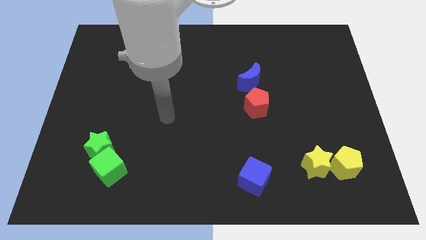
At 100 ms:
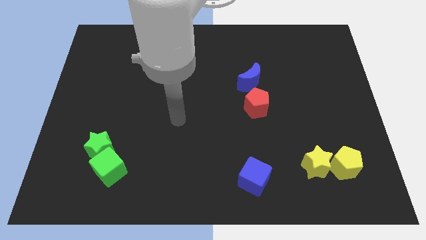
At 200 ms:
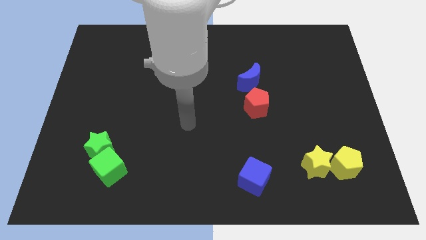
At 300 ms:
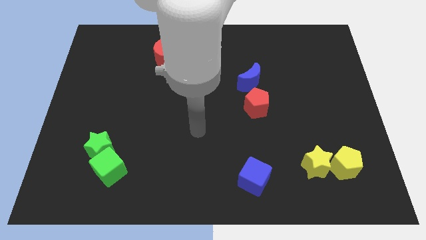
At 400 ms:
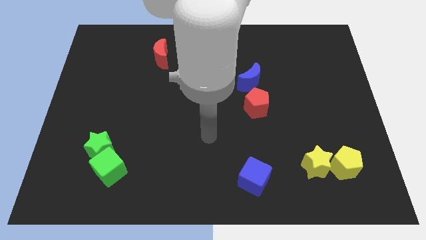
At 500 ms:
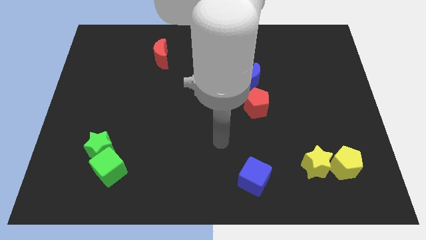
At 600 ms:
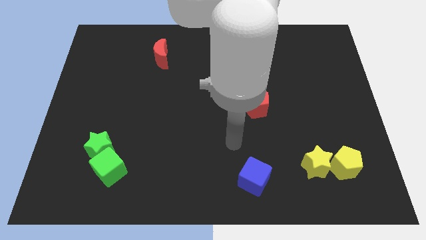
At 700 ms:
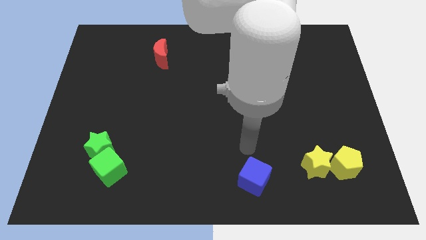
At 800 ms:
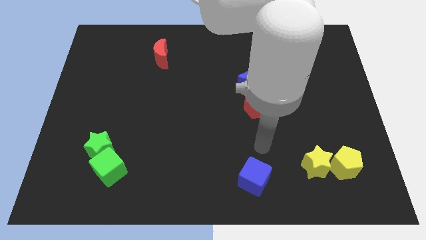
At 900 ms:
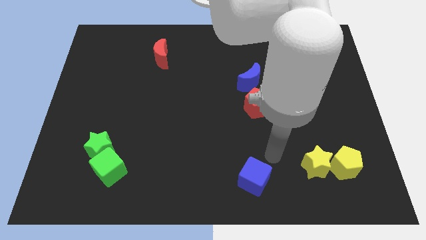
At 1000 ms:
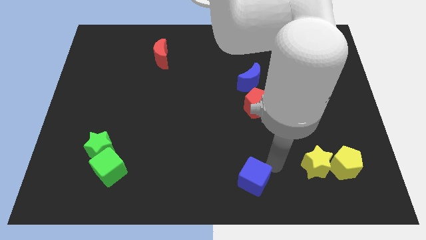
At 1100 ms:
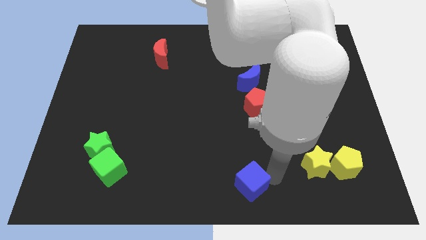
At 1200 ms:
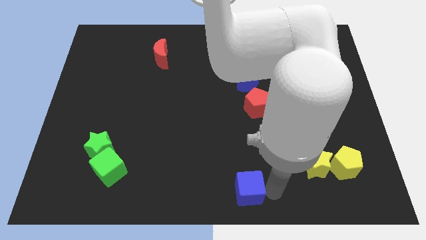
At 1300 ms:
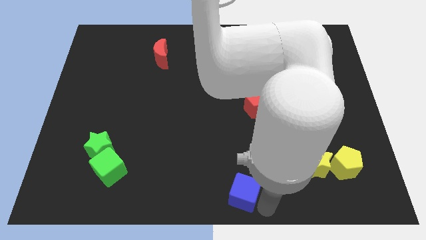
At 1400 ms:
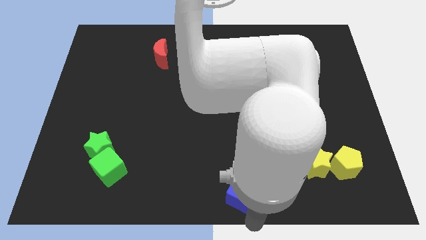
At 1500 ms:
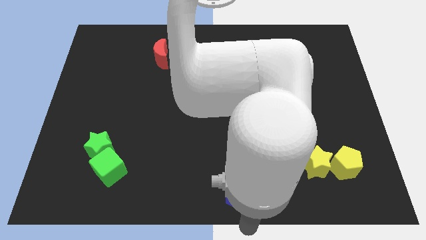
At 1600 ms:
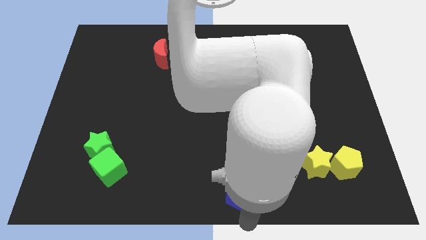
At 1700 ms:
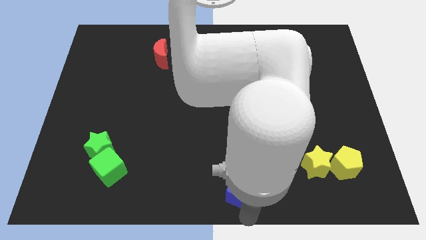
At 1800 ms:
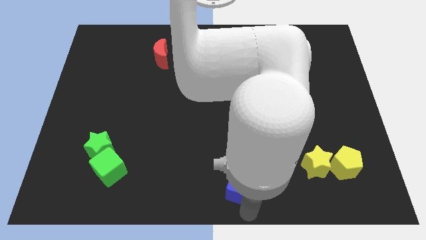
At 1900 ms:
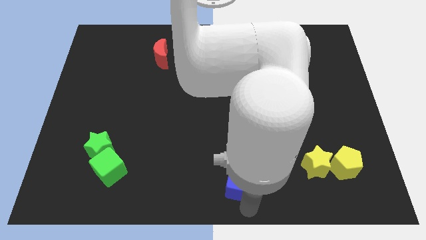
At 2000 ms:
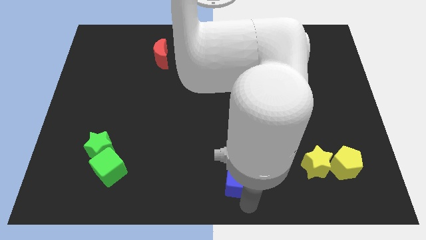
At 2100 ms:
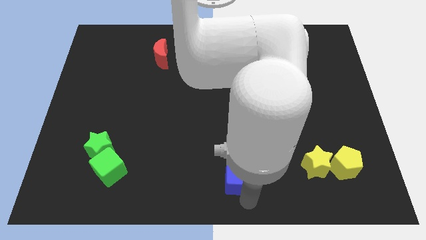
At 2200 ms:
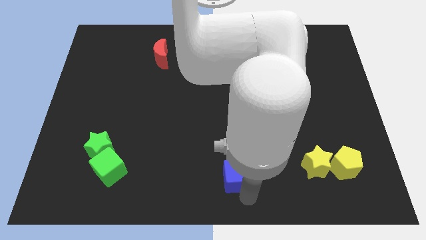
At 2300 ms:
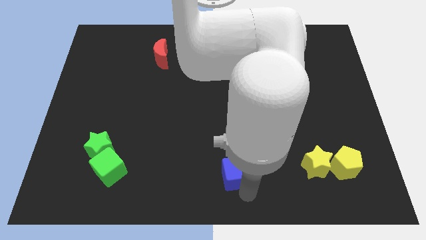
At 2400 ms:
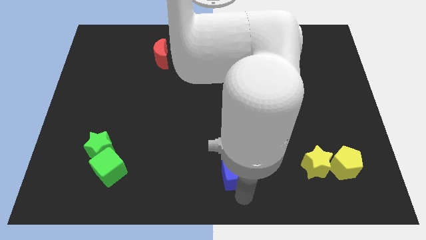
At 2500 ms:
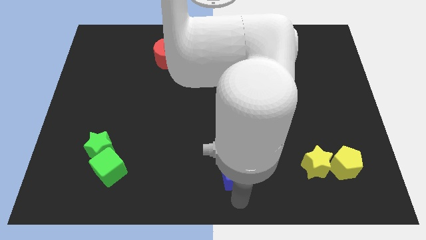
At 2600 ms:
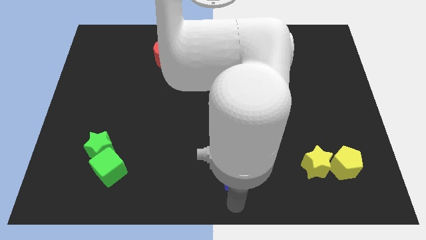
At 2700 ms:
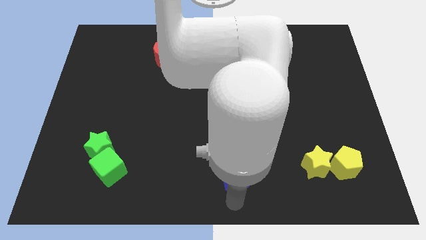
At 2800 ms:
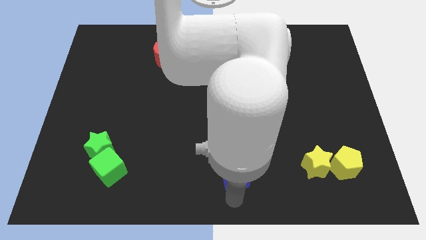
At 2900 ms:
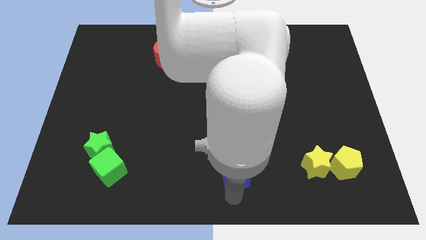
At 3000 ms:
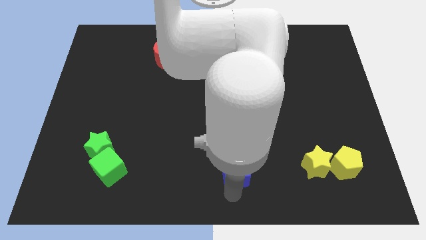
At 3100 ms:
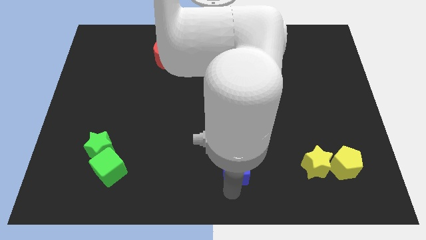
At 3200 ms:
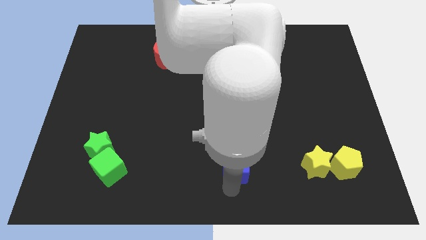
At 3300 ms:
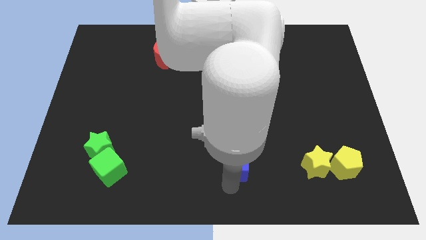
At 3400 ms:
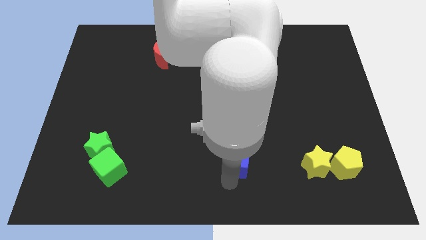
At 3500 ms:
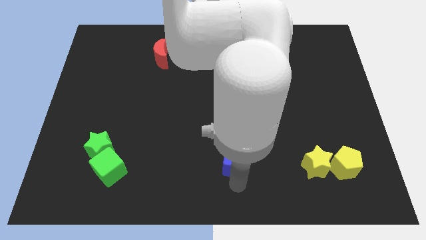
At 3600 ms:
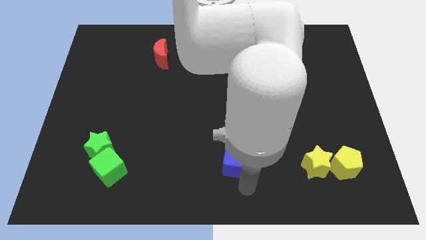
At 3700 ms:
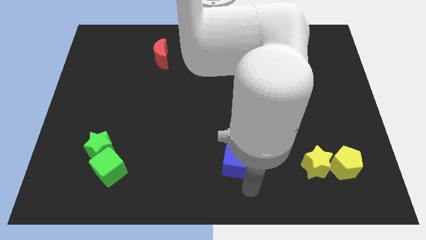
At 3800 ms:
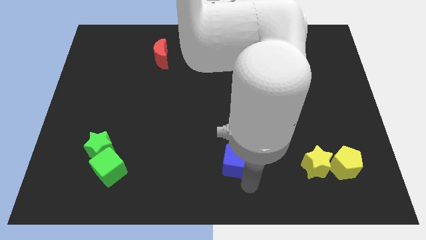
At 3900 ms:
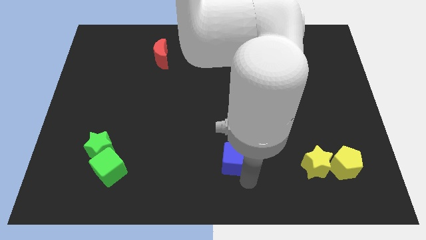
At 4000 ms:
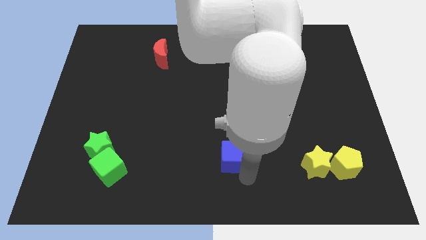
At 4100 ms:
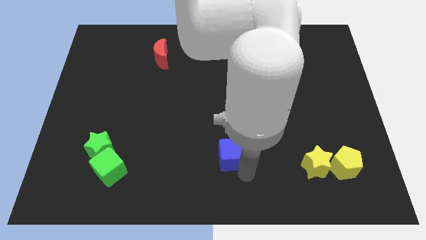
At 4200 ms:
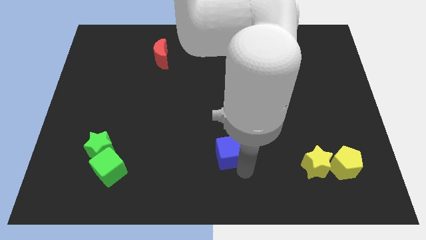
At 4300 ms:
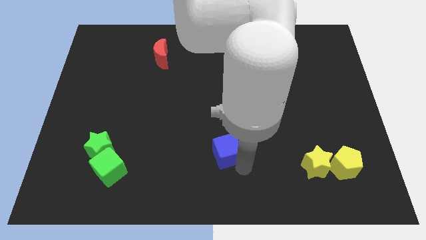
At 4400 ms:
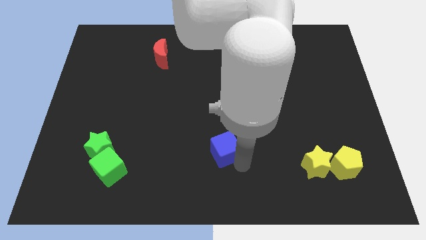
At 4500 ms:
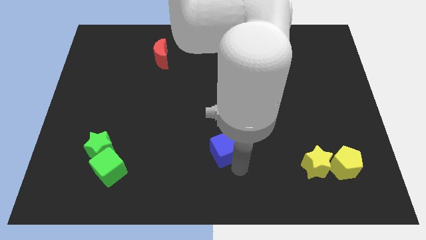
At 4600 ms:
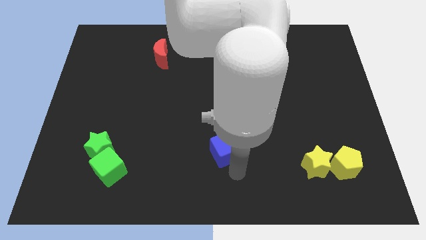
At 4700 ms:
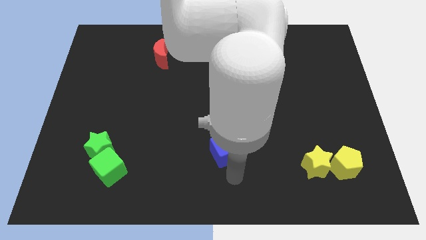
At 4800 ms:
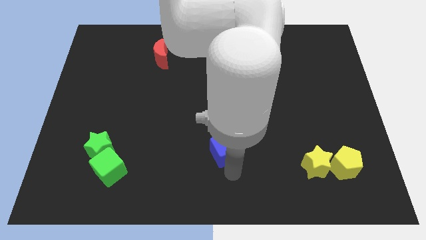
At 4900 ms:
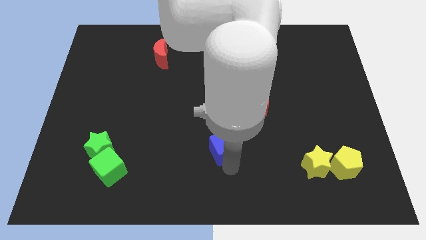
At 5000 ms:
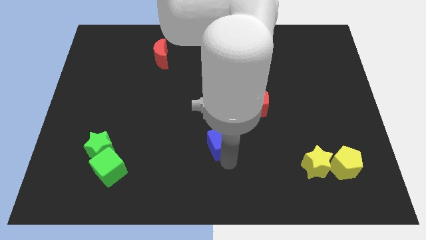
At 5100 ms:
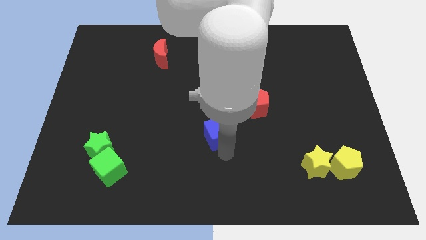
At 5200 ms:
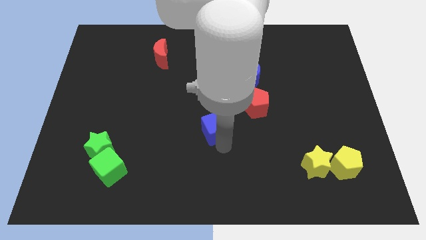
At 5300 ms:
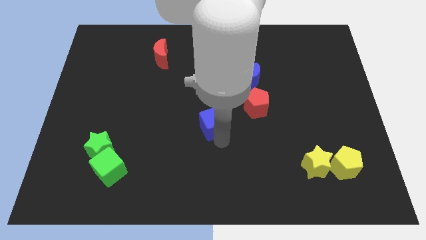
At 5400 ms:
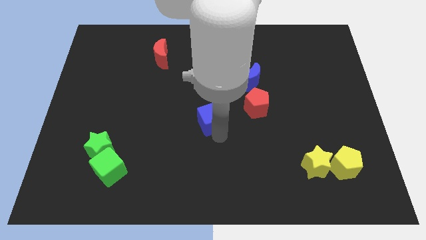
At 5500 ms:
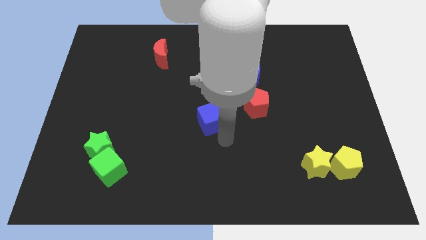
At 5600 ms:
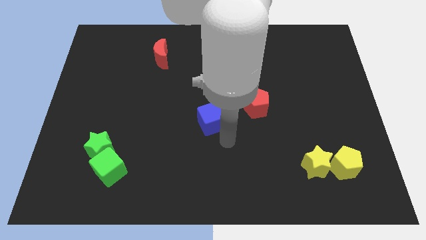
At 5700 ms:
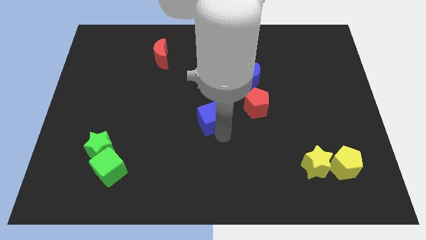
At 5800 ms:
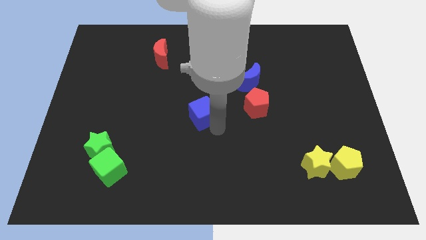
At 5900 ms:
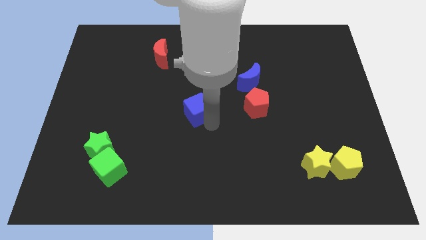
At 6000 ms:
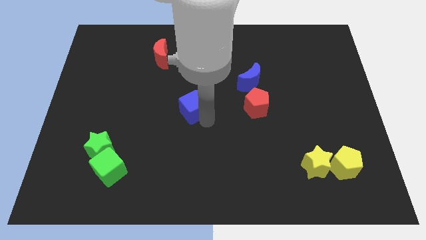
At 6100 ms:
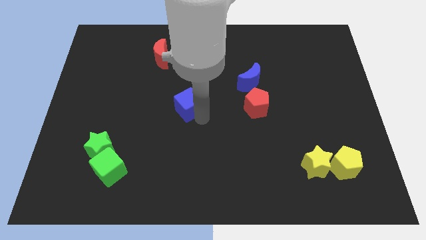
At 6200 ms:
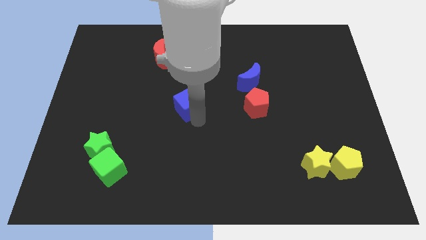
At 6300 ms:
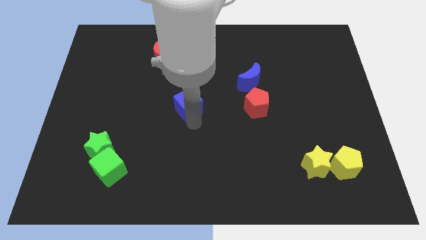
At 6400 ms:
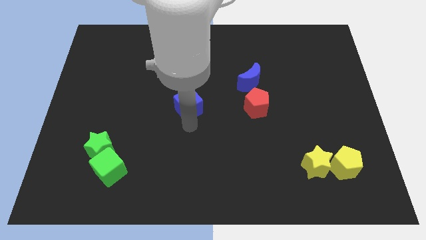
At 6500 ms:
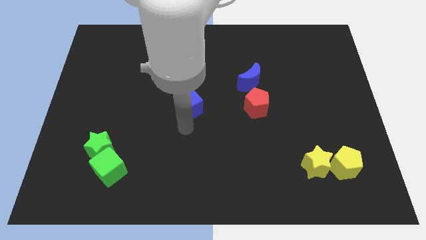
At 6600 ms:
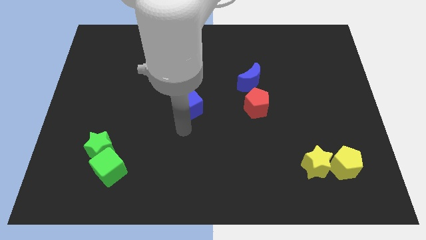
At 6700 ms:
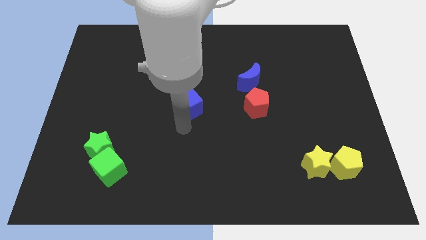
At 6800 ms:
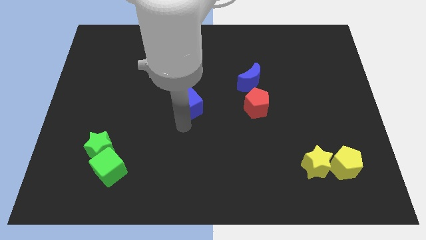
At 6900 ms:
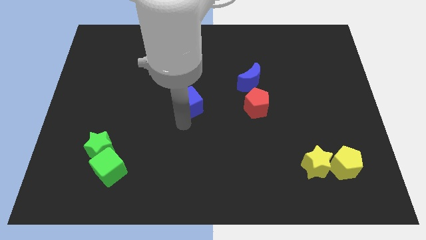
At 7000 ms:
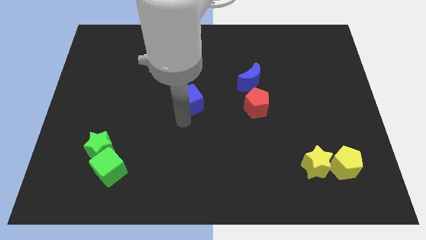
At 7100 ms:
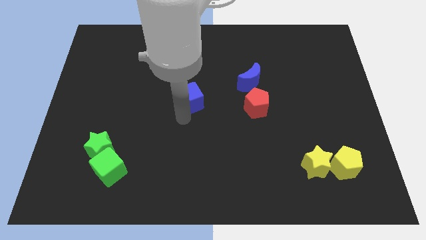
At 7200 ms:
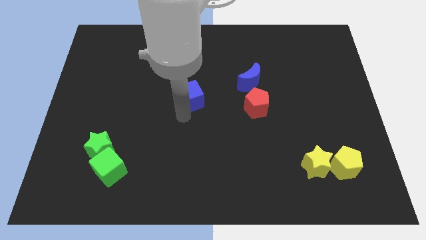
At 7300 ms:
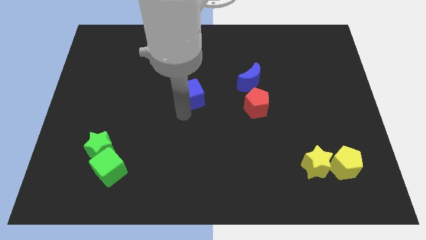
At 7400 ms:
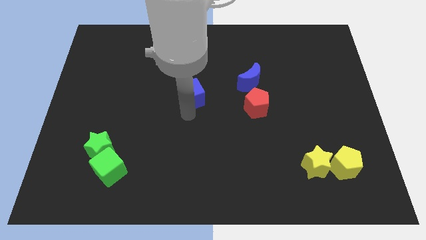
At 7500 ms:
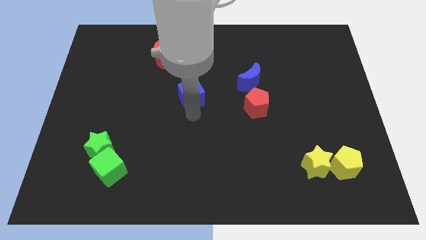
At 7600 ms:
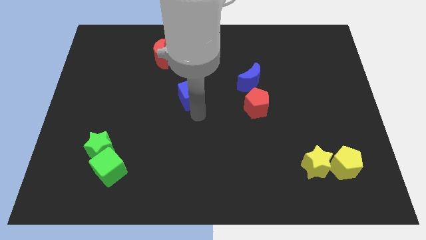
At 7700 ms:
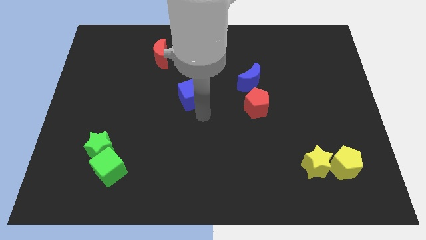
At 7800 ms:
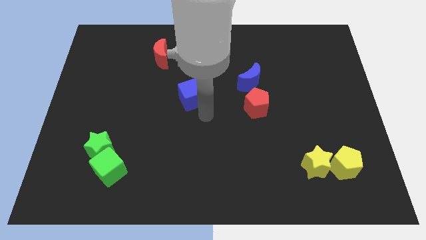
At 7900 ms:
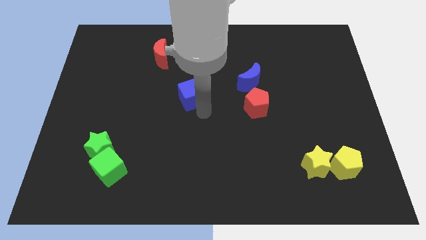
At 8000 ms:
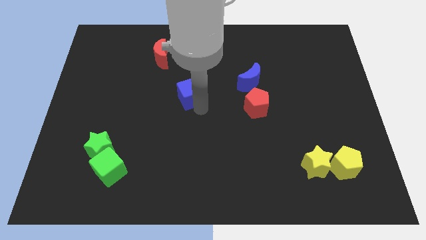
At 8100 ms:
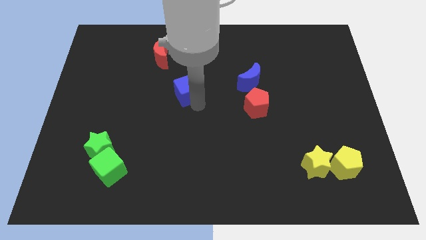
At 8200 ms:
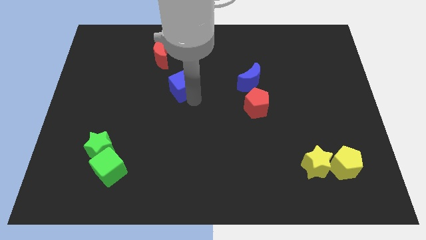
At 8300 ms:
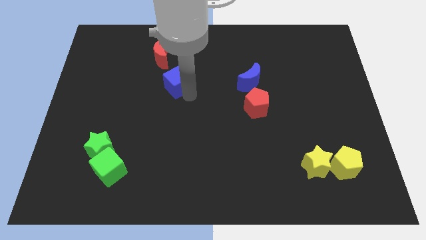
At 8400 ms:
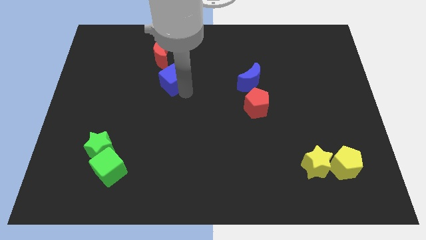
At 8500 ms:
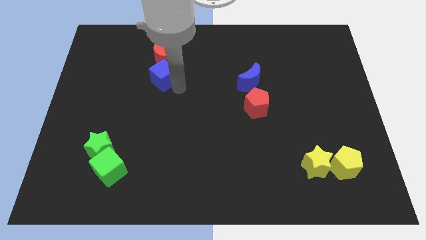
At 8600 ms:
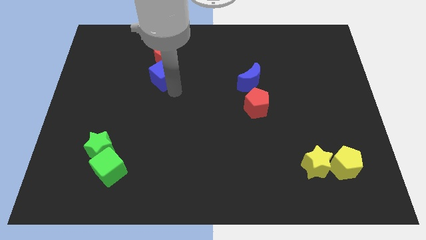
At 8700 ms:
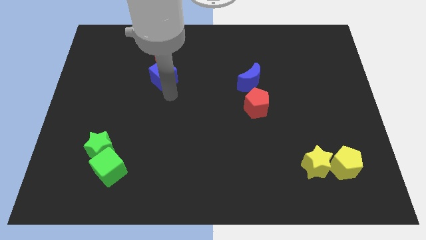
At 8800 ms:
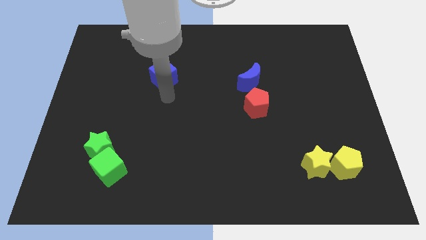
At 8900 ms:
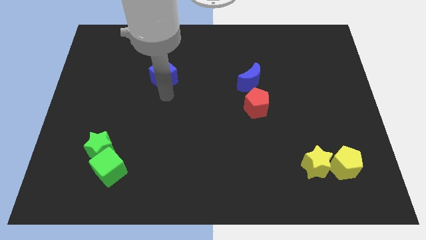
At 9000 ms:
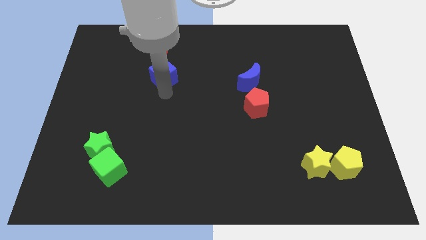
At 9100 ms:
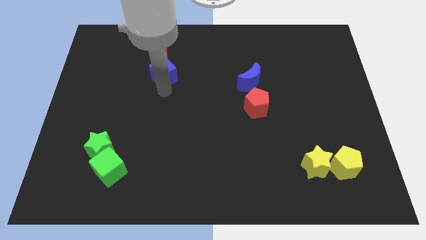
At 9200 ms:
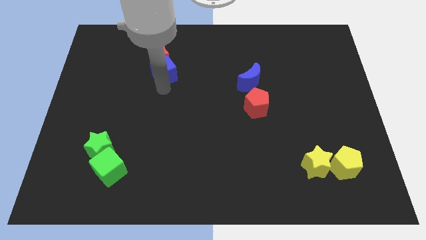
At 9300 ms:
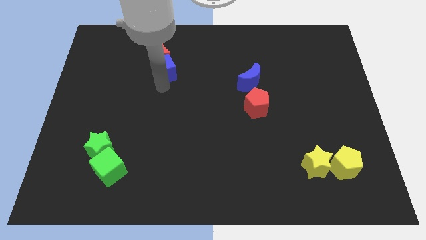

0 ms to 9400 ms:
slide the blue cube towards the red moon
